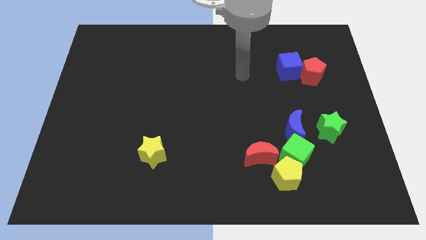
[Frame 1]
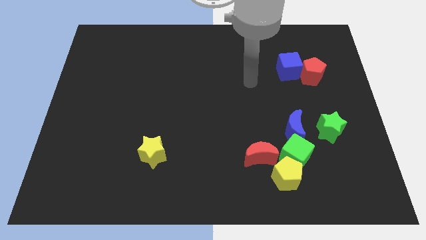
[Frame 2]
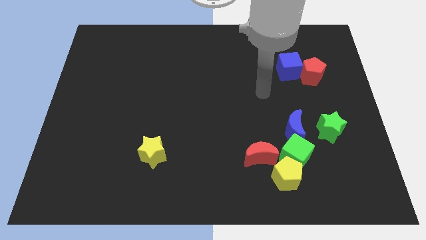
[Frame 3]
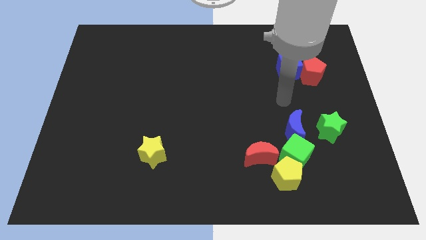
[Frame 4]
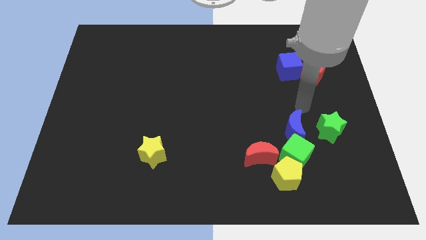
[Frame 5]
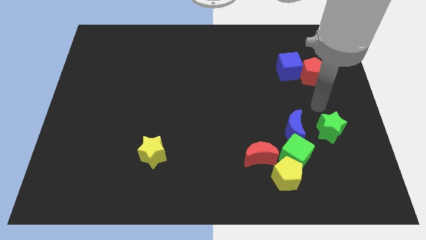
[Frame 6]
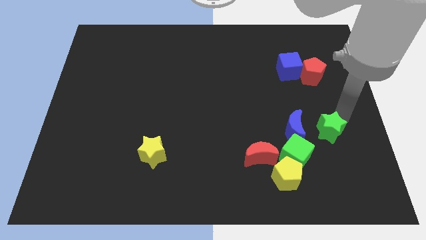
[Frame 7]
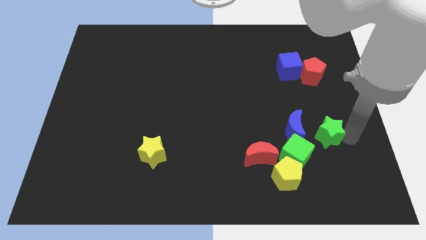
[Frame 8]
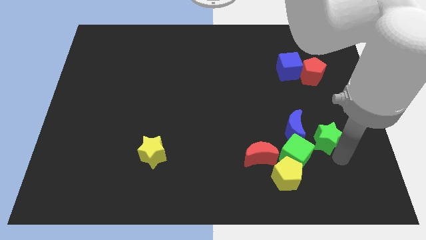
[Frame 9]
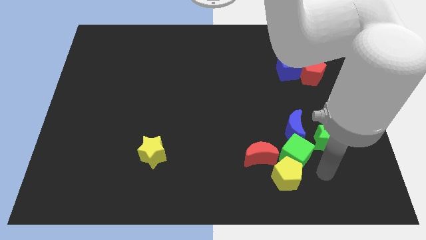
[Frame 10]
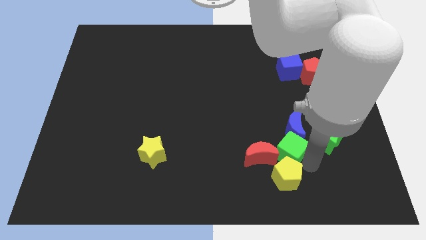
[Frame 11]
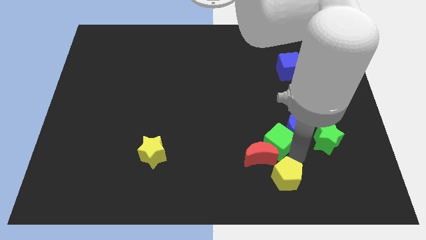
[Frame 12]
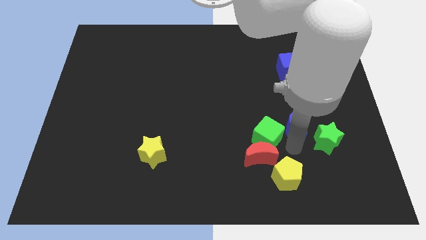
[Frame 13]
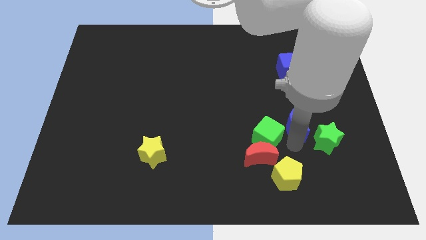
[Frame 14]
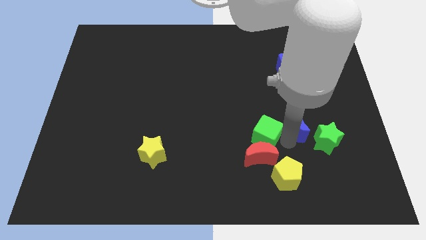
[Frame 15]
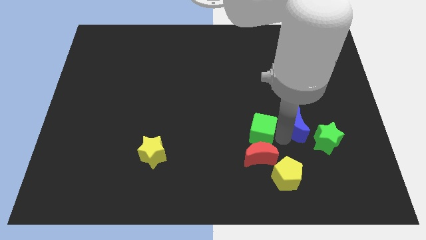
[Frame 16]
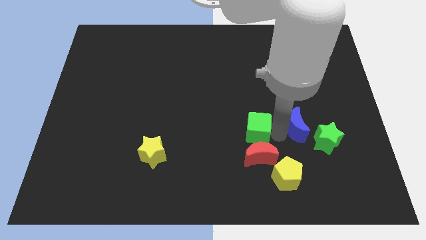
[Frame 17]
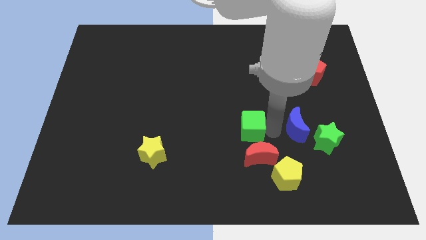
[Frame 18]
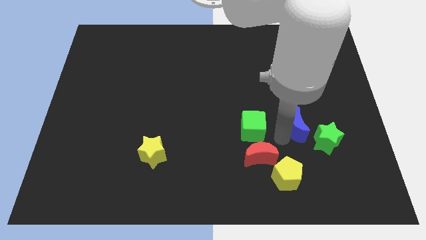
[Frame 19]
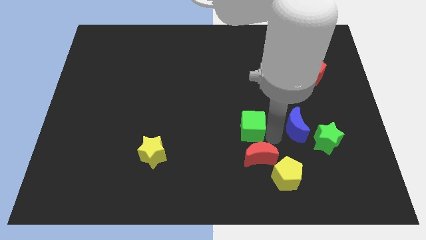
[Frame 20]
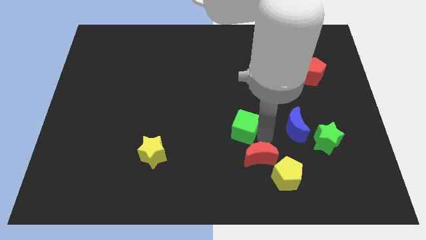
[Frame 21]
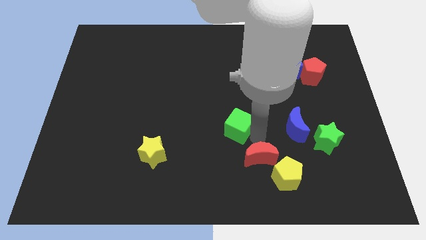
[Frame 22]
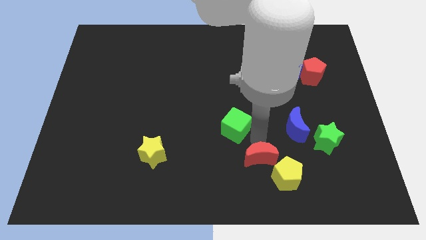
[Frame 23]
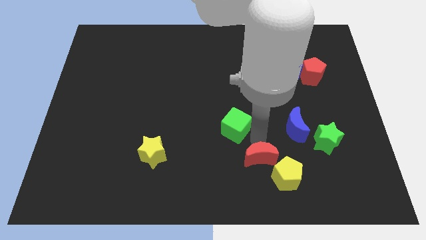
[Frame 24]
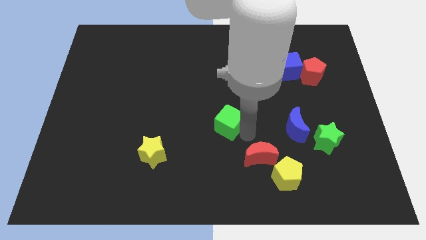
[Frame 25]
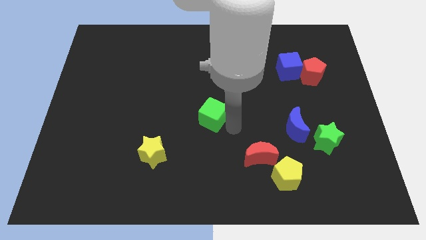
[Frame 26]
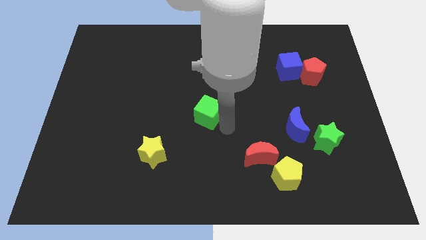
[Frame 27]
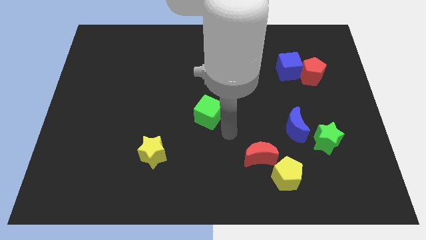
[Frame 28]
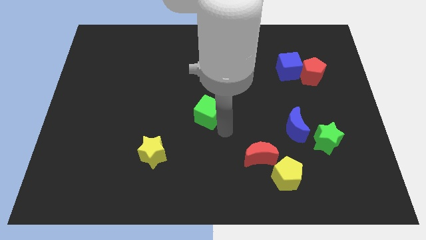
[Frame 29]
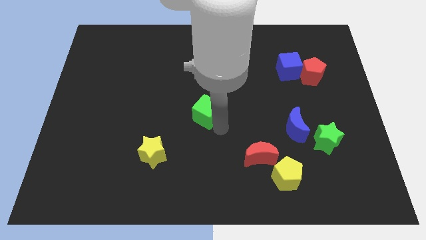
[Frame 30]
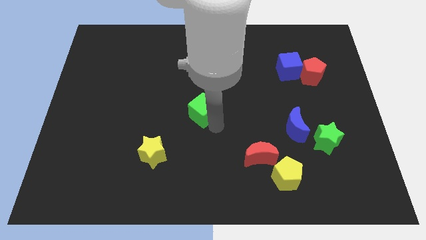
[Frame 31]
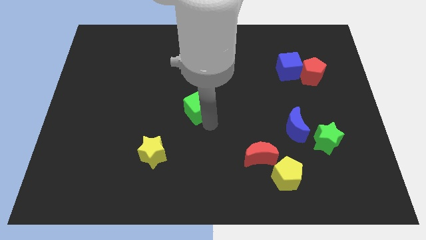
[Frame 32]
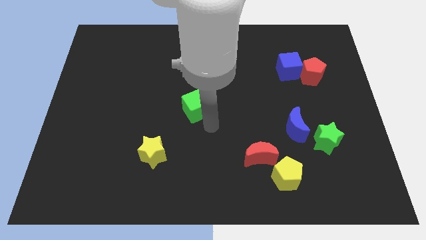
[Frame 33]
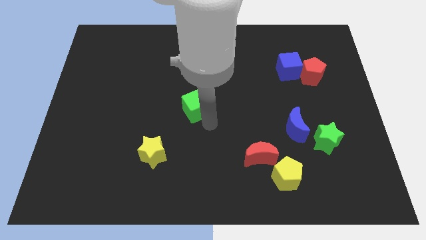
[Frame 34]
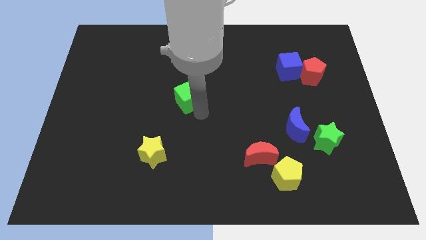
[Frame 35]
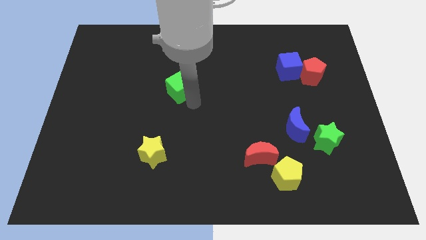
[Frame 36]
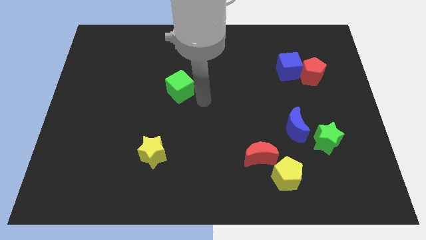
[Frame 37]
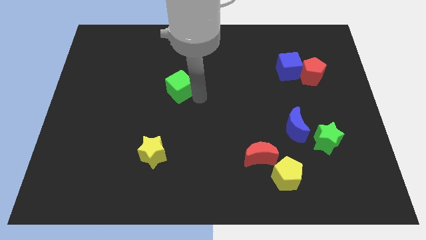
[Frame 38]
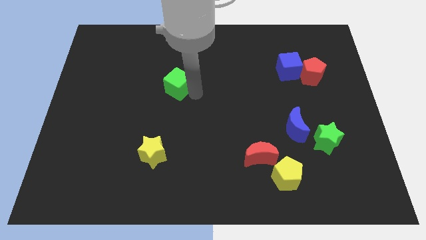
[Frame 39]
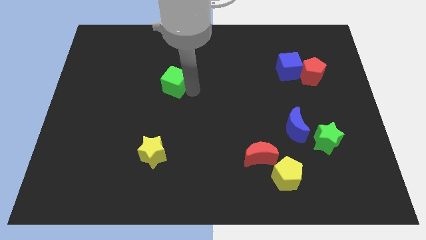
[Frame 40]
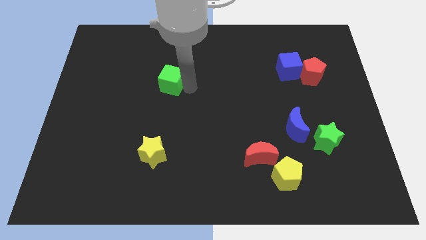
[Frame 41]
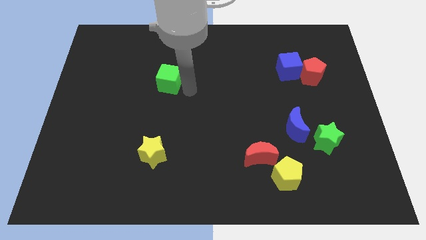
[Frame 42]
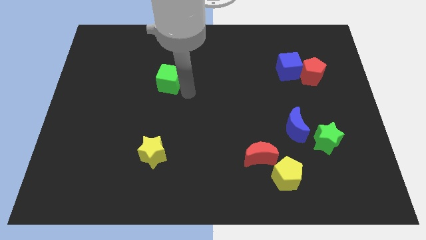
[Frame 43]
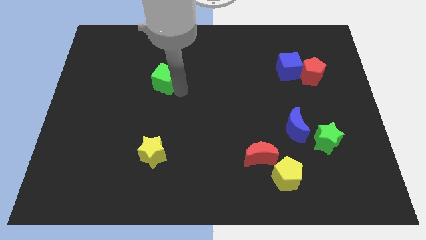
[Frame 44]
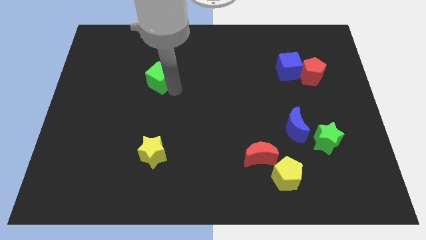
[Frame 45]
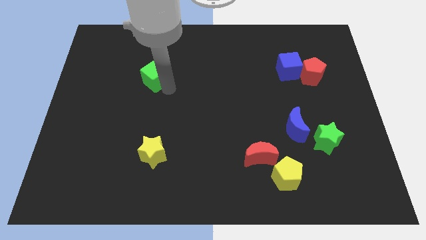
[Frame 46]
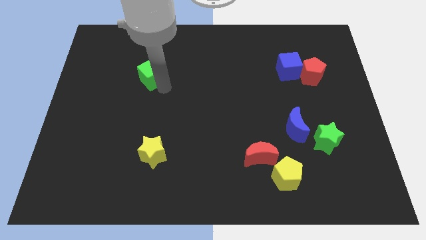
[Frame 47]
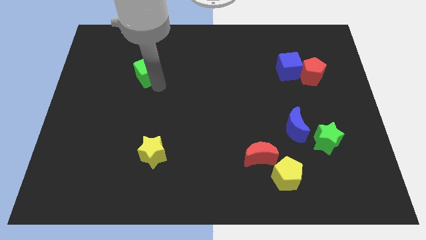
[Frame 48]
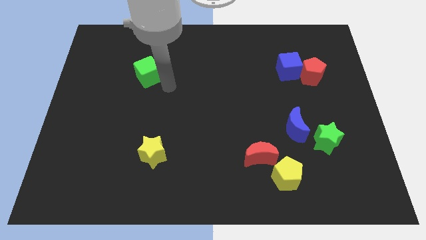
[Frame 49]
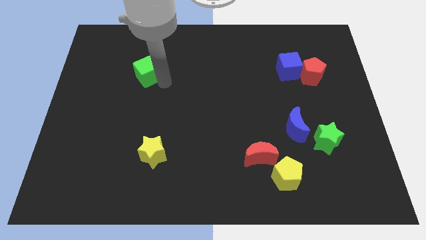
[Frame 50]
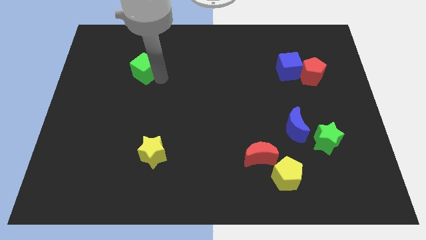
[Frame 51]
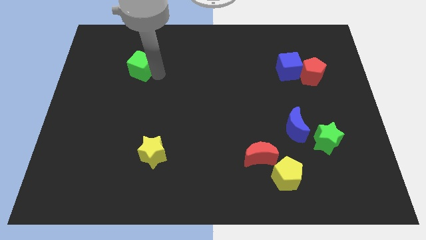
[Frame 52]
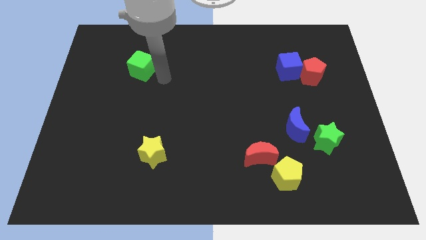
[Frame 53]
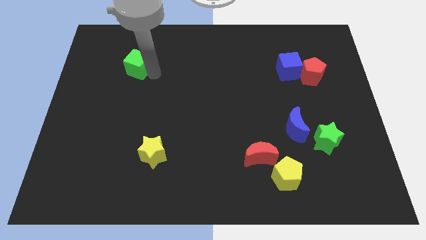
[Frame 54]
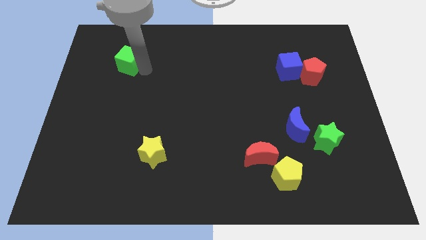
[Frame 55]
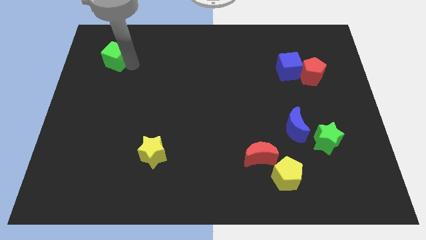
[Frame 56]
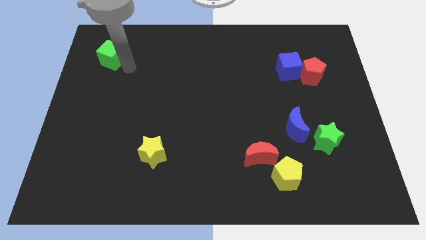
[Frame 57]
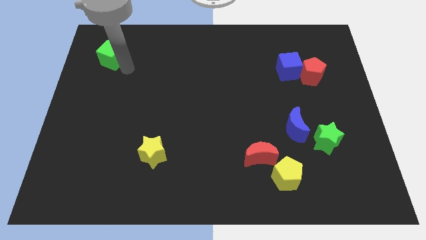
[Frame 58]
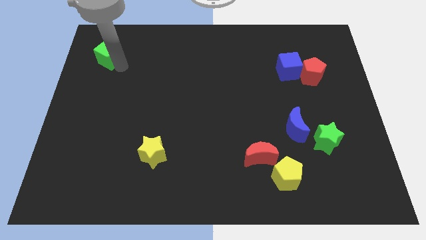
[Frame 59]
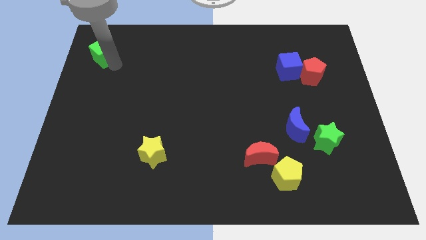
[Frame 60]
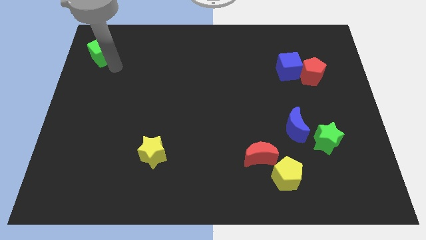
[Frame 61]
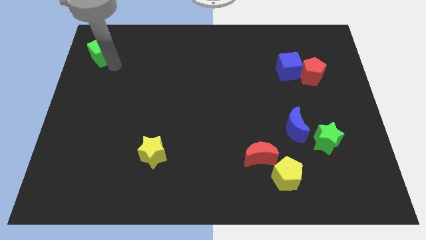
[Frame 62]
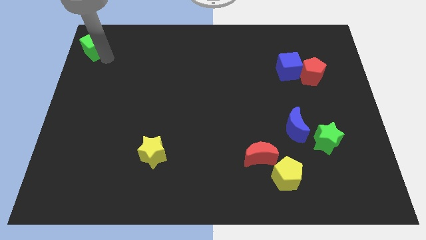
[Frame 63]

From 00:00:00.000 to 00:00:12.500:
put the green cube to the top left of the board
